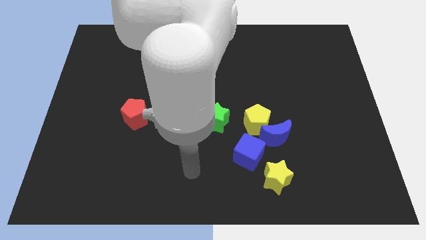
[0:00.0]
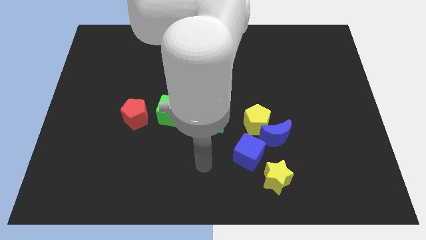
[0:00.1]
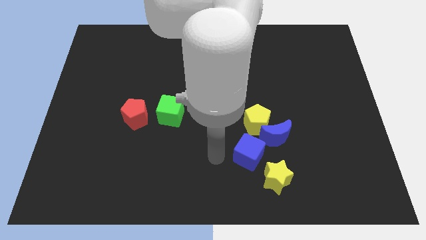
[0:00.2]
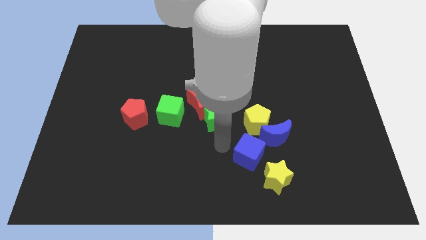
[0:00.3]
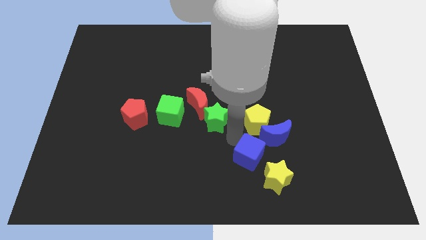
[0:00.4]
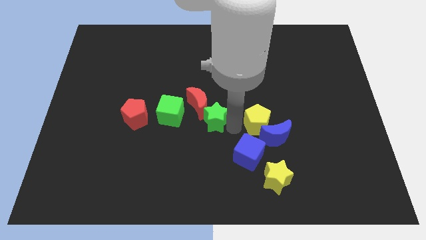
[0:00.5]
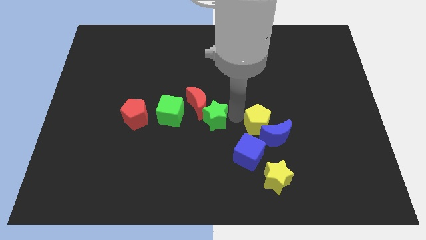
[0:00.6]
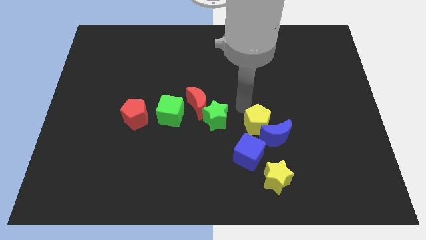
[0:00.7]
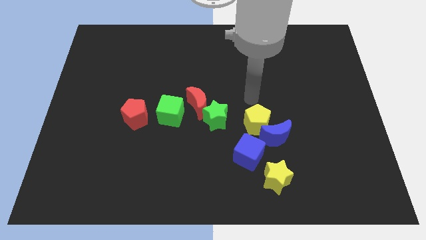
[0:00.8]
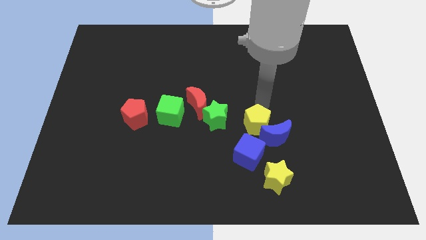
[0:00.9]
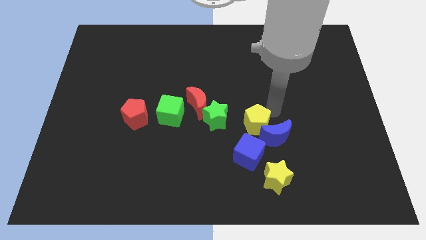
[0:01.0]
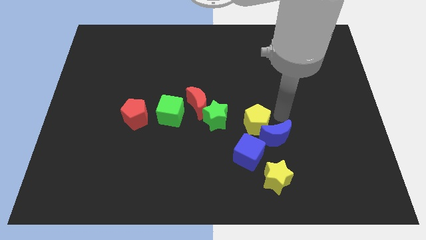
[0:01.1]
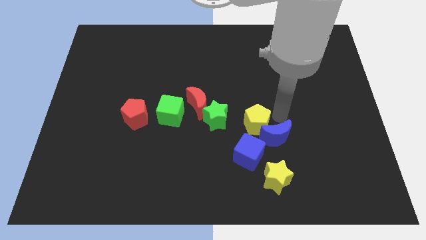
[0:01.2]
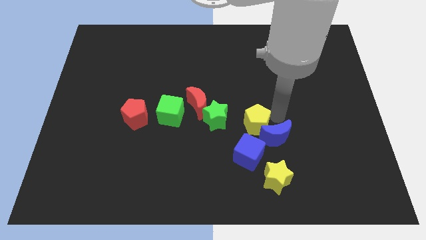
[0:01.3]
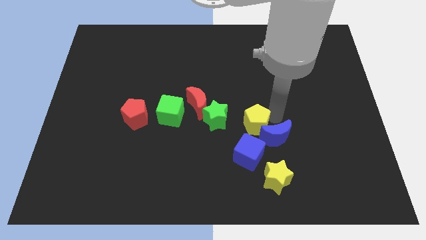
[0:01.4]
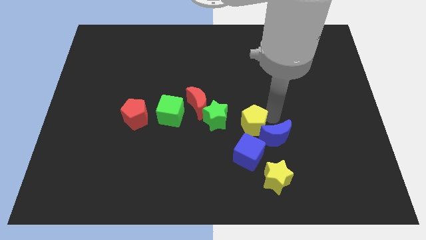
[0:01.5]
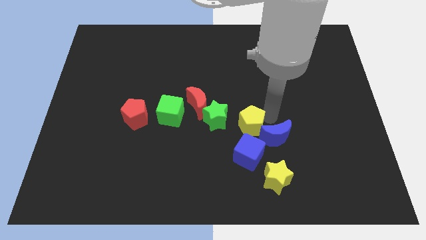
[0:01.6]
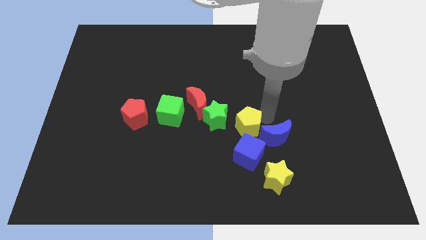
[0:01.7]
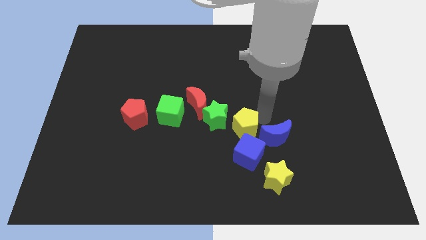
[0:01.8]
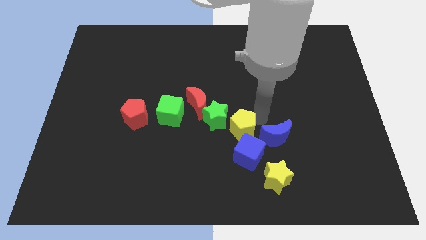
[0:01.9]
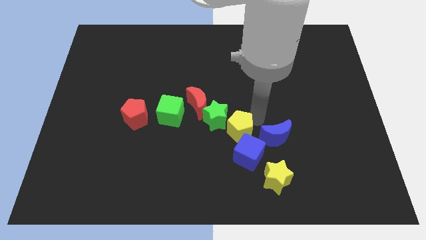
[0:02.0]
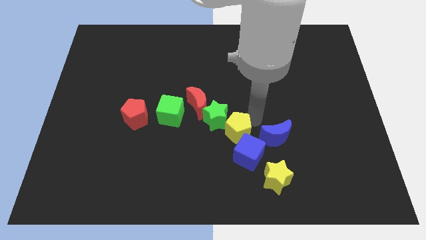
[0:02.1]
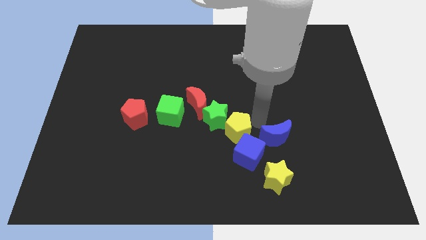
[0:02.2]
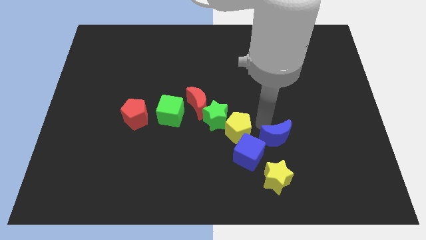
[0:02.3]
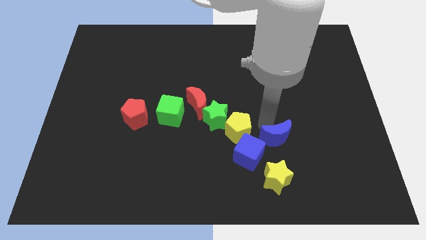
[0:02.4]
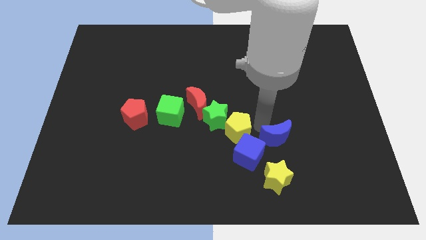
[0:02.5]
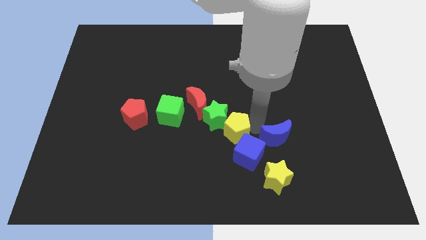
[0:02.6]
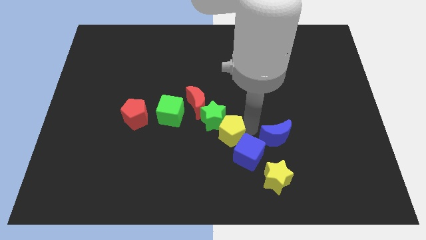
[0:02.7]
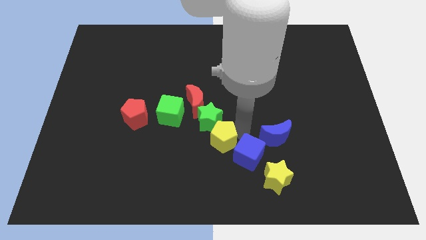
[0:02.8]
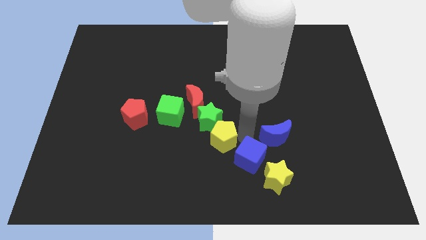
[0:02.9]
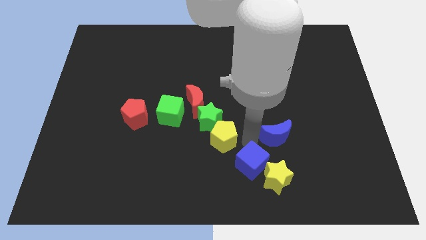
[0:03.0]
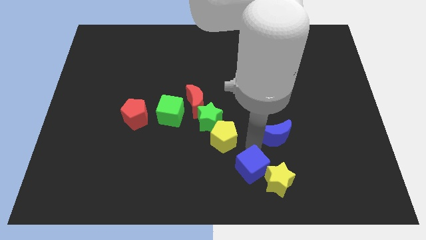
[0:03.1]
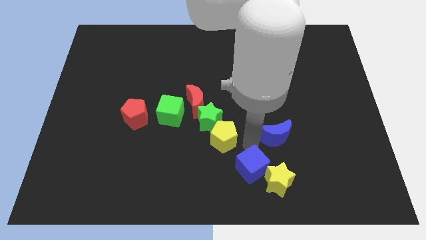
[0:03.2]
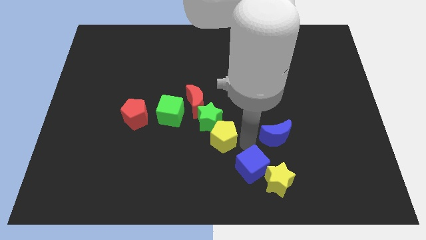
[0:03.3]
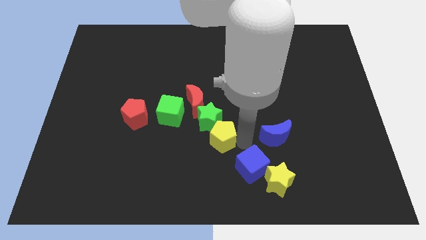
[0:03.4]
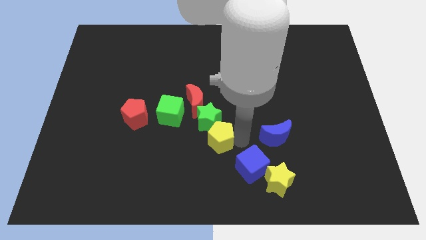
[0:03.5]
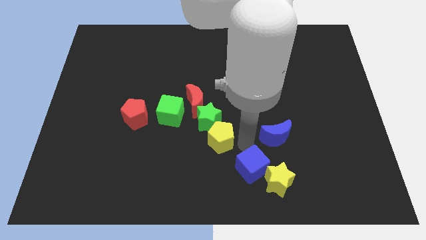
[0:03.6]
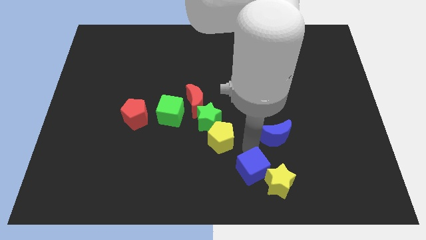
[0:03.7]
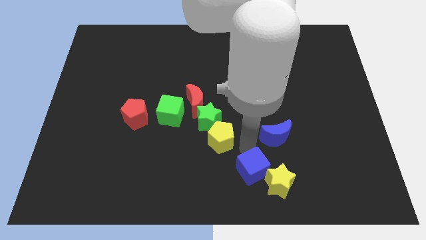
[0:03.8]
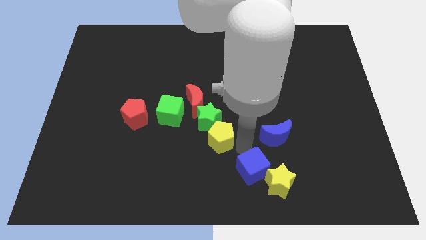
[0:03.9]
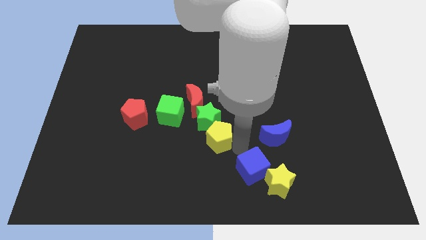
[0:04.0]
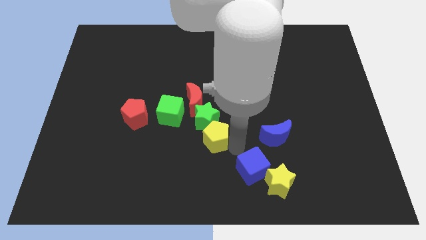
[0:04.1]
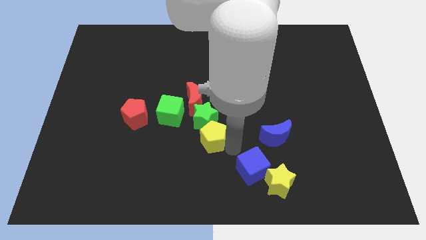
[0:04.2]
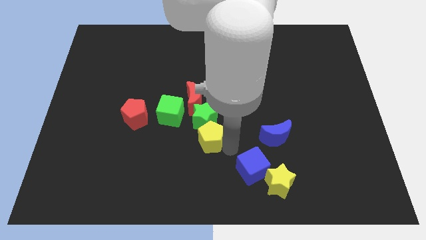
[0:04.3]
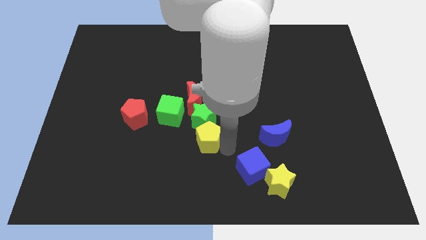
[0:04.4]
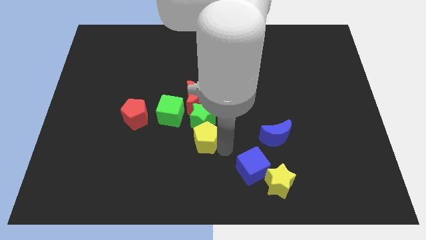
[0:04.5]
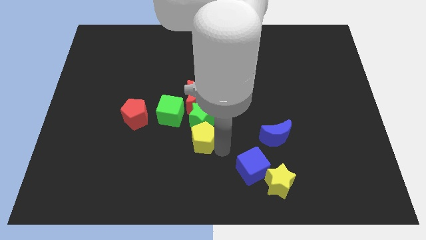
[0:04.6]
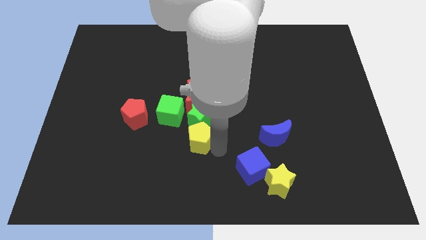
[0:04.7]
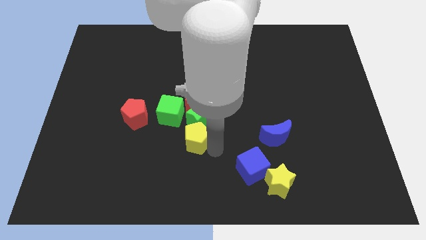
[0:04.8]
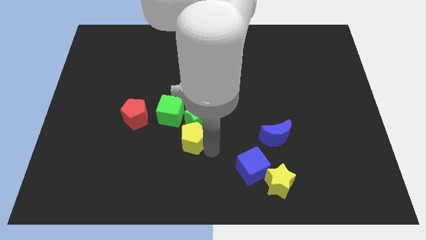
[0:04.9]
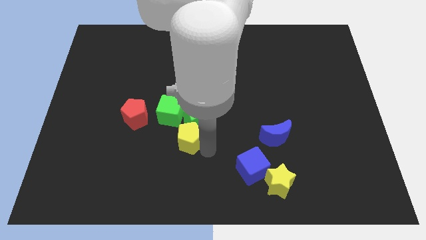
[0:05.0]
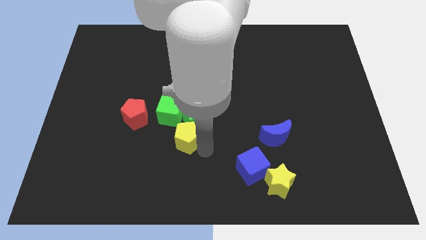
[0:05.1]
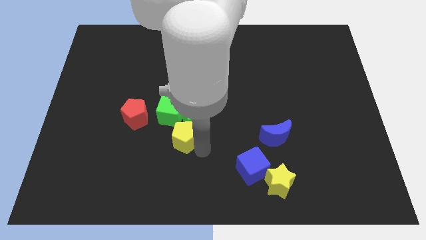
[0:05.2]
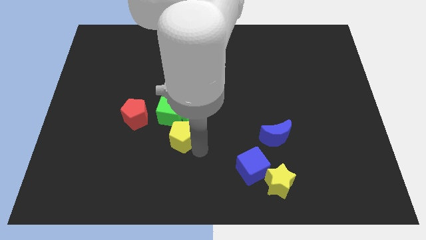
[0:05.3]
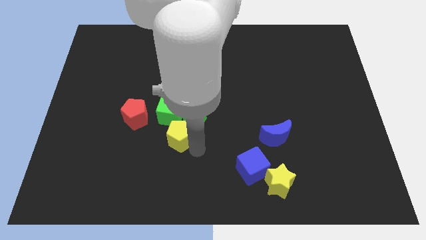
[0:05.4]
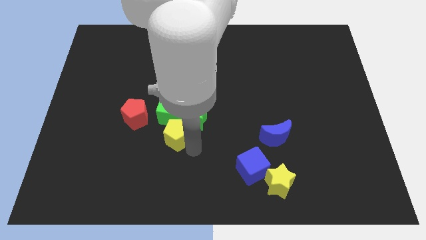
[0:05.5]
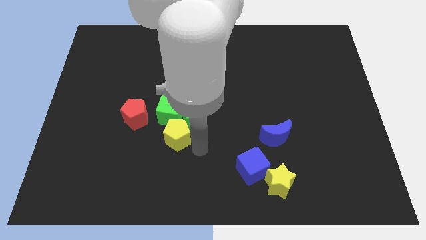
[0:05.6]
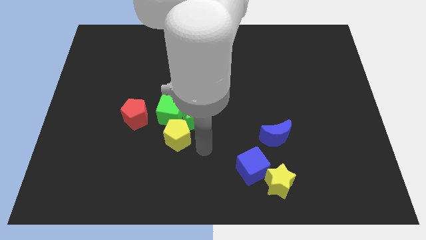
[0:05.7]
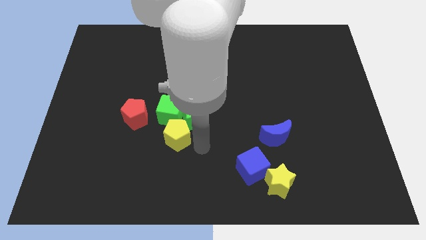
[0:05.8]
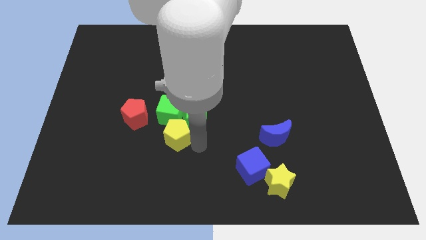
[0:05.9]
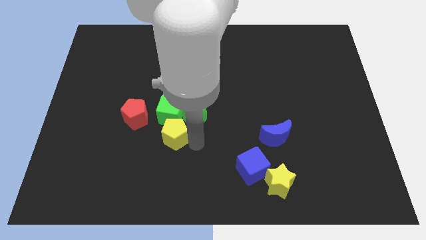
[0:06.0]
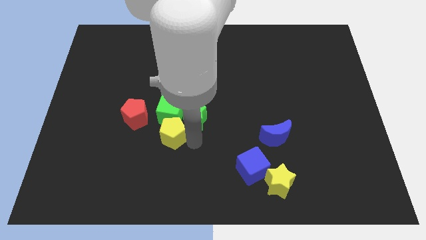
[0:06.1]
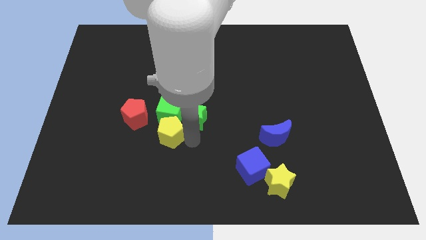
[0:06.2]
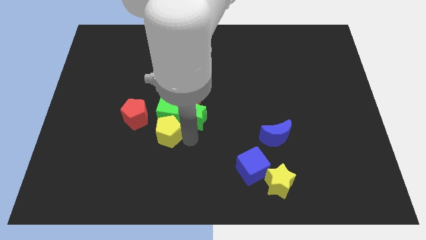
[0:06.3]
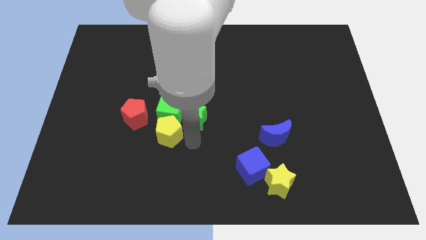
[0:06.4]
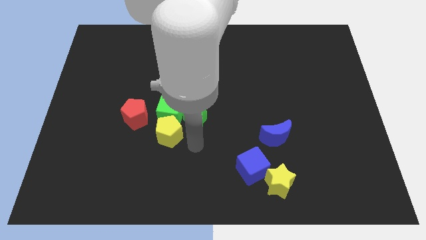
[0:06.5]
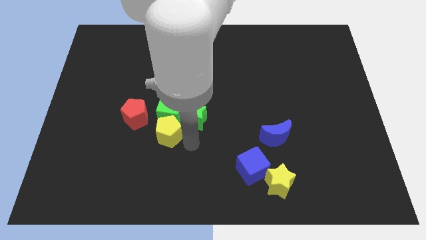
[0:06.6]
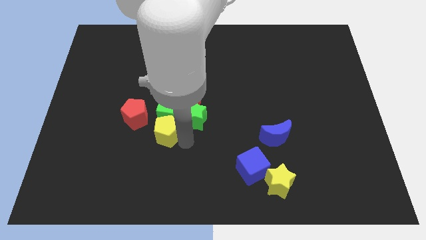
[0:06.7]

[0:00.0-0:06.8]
move the yellow pentagon left

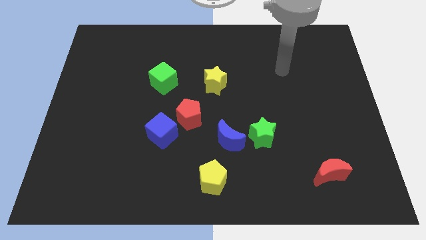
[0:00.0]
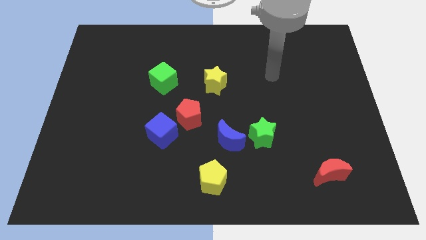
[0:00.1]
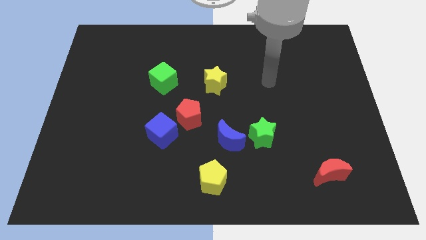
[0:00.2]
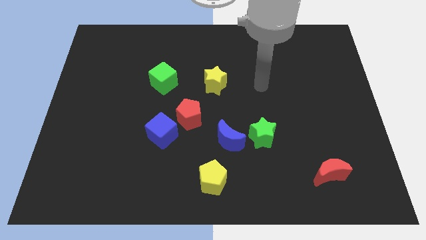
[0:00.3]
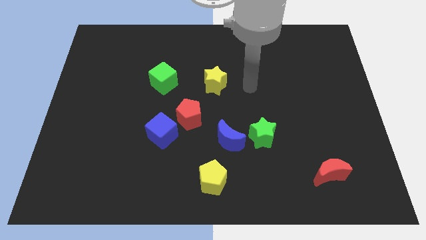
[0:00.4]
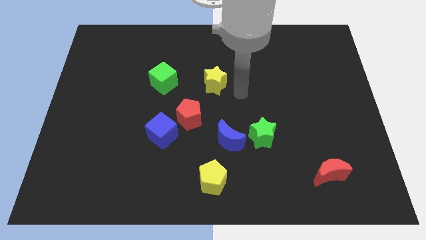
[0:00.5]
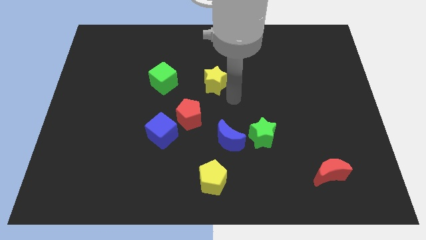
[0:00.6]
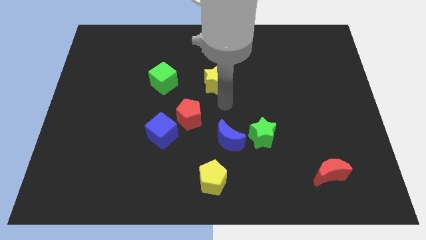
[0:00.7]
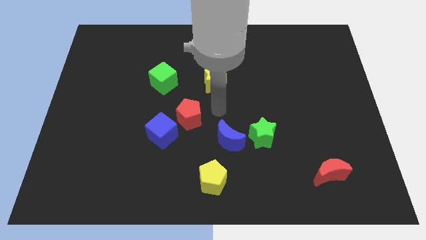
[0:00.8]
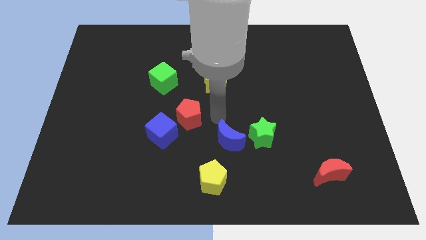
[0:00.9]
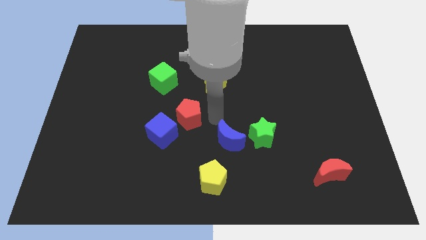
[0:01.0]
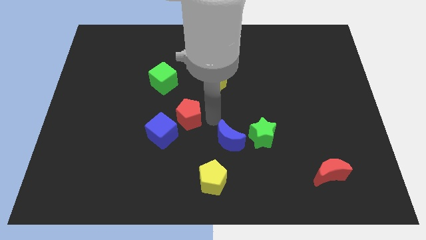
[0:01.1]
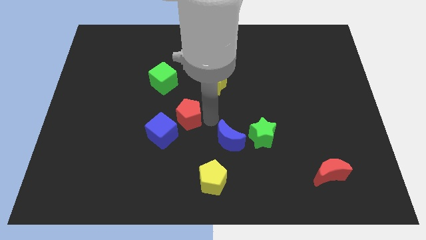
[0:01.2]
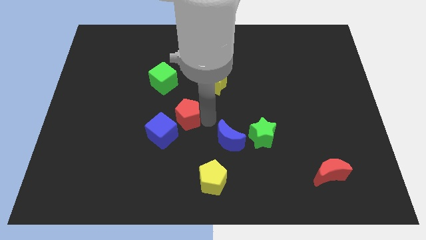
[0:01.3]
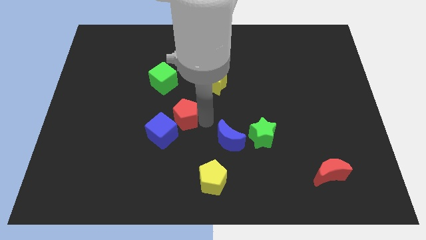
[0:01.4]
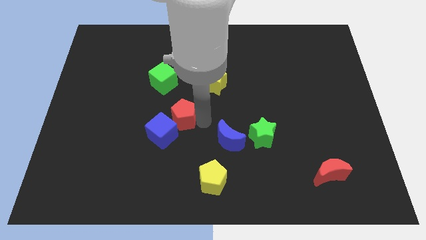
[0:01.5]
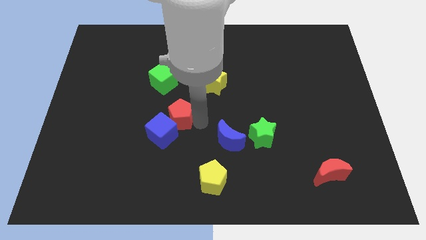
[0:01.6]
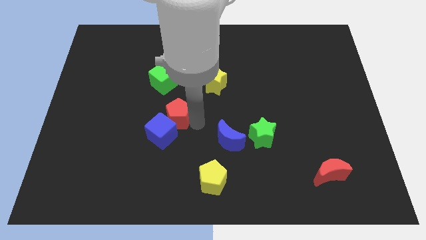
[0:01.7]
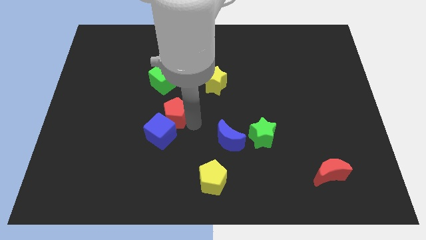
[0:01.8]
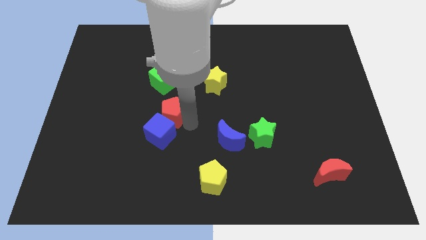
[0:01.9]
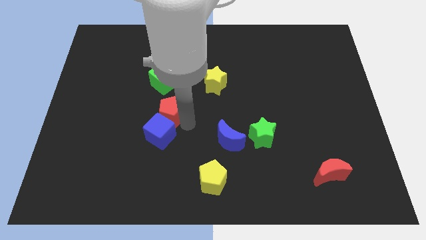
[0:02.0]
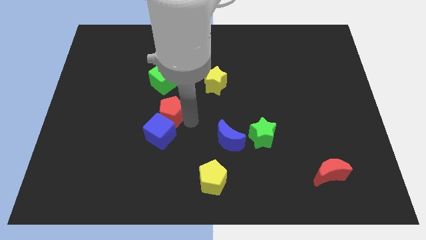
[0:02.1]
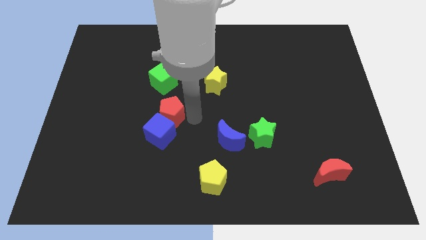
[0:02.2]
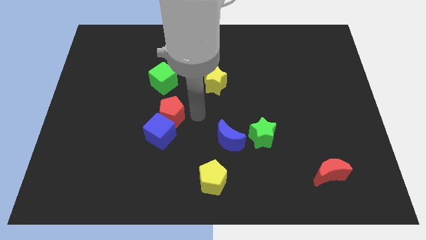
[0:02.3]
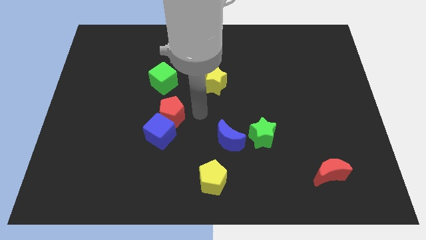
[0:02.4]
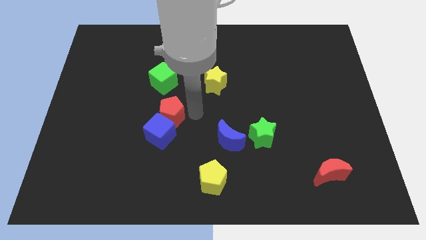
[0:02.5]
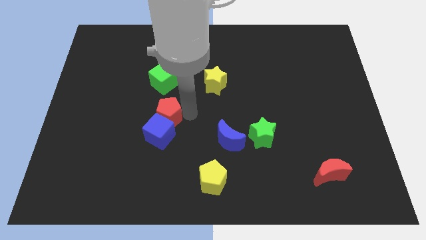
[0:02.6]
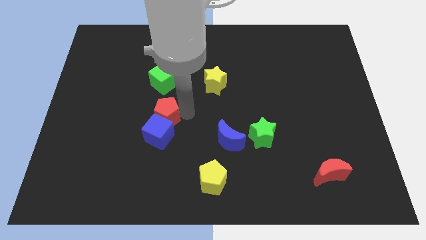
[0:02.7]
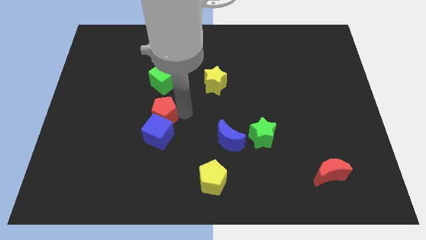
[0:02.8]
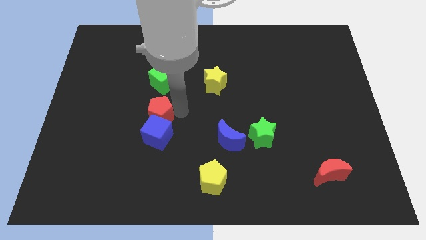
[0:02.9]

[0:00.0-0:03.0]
slightly move the red pentagon to the left
